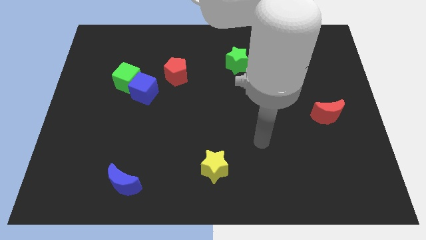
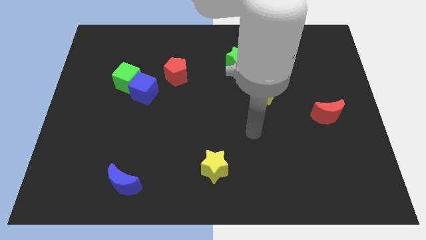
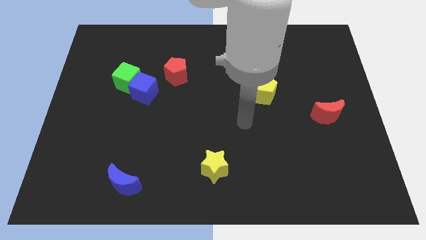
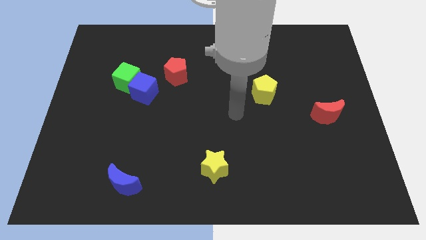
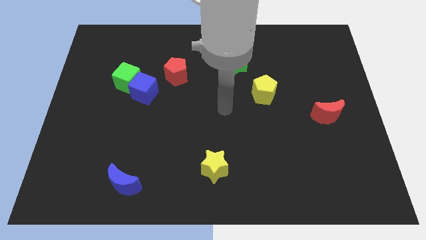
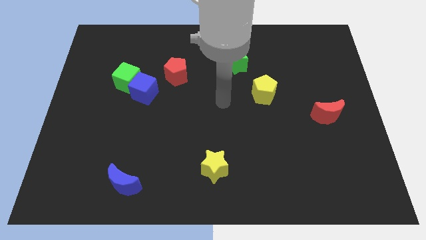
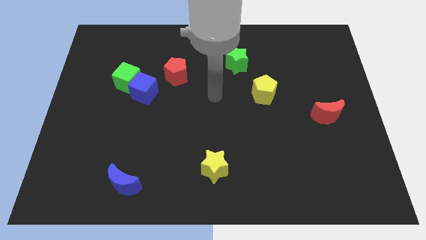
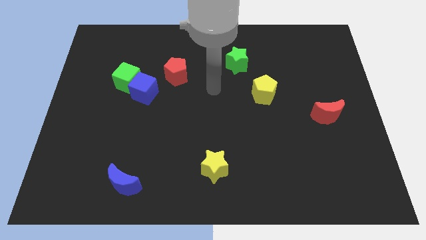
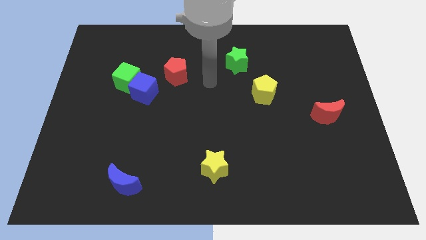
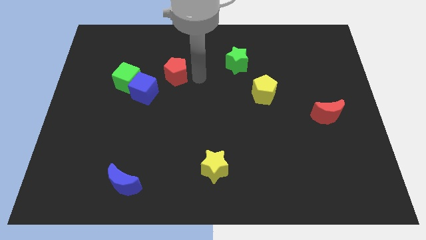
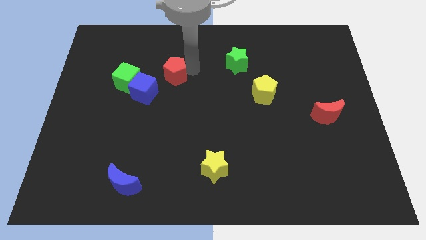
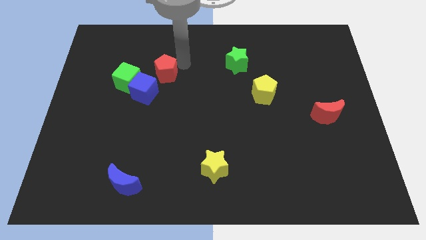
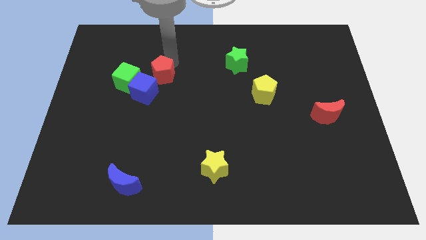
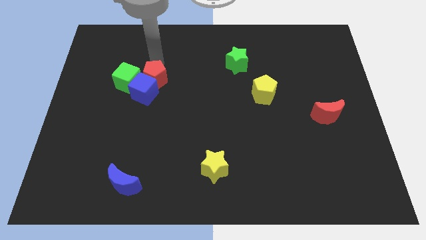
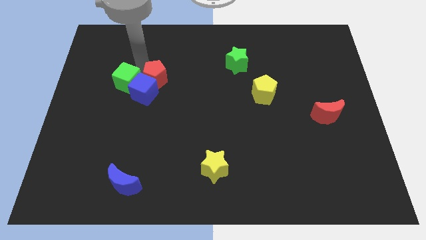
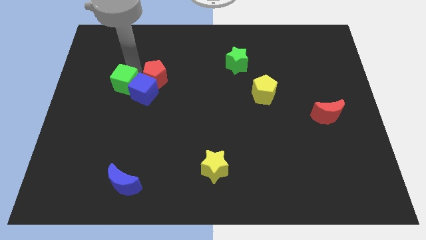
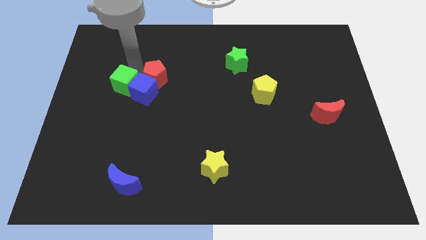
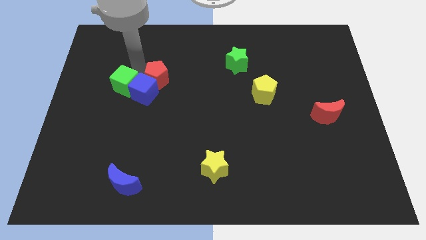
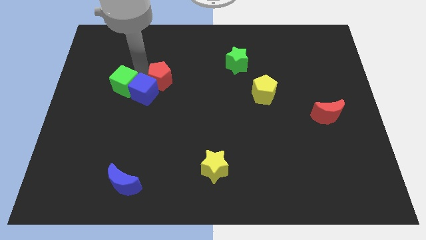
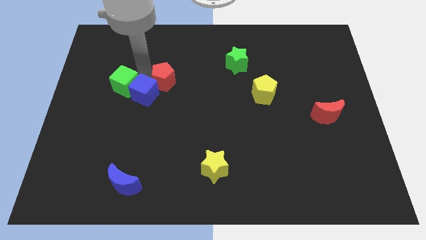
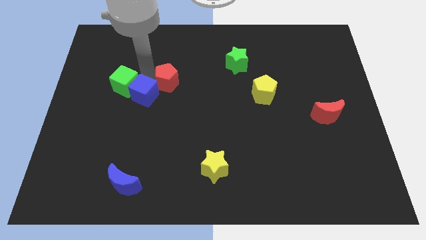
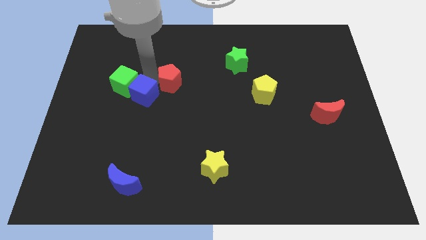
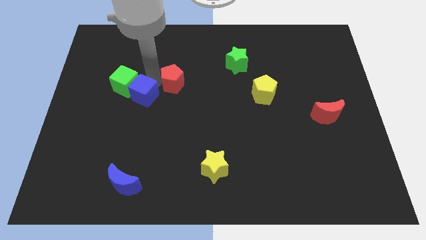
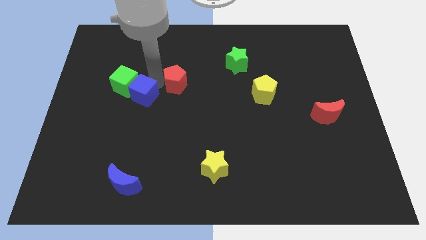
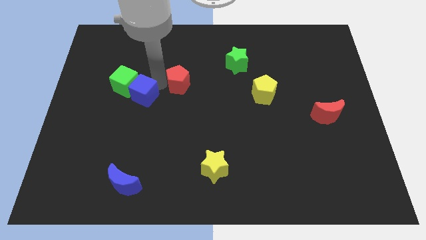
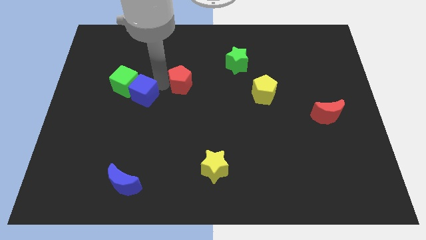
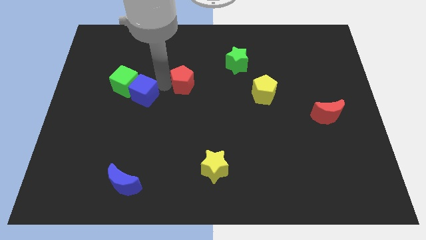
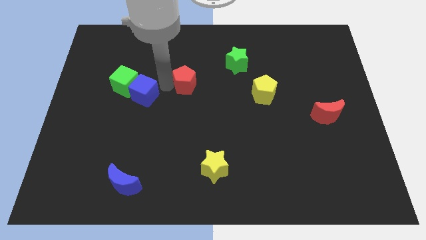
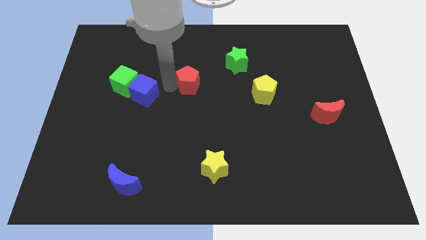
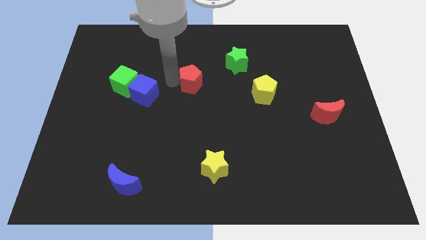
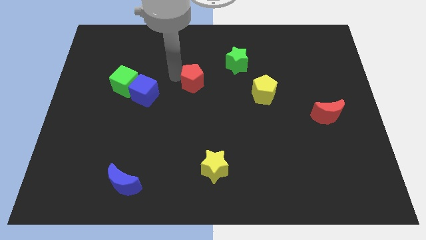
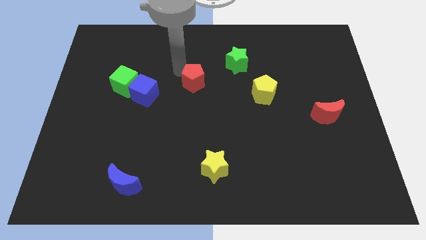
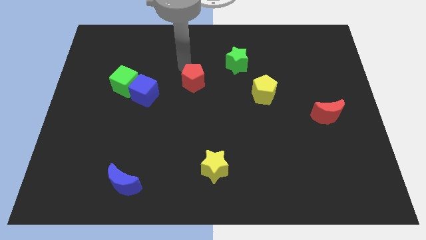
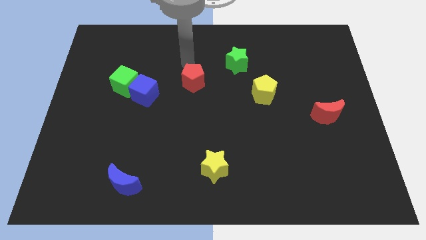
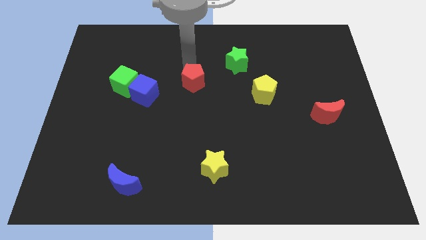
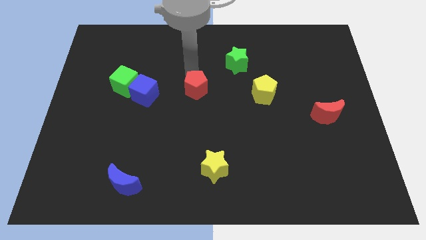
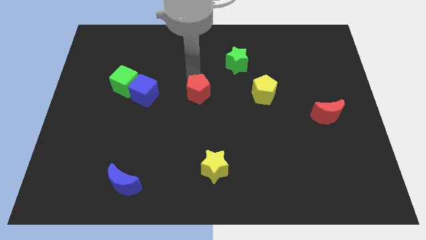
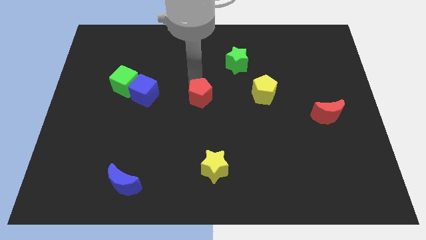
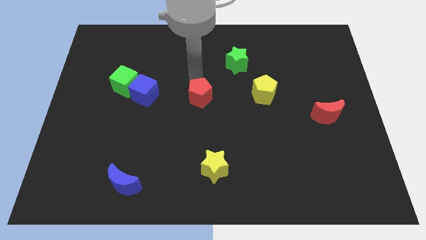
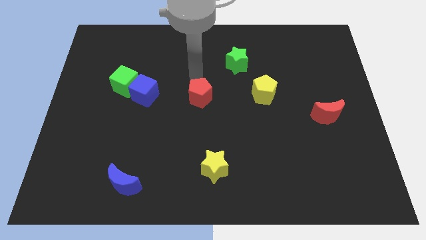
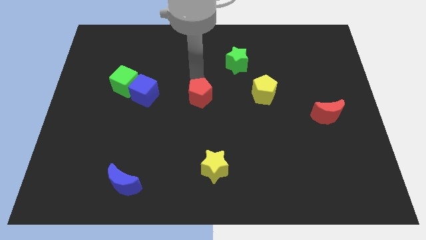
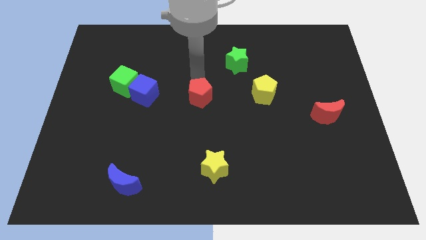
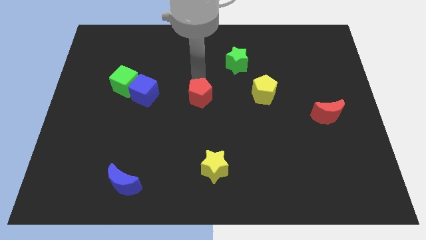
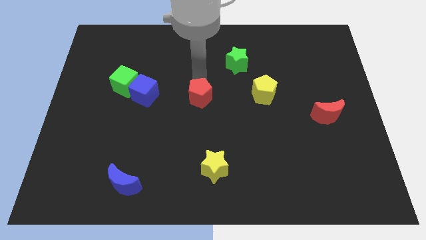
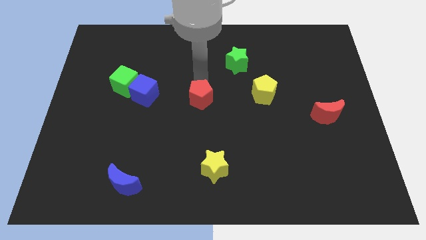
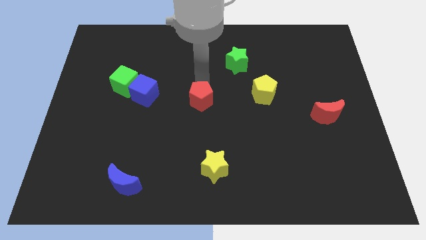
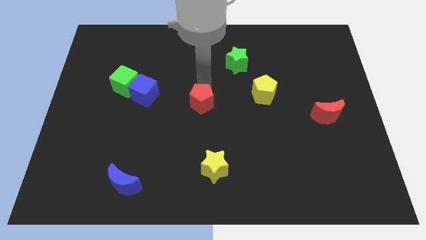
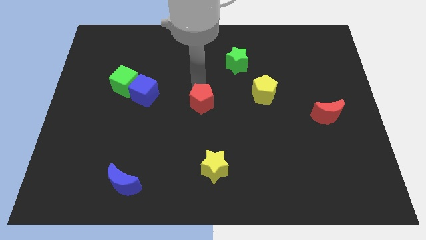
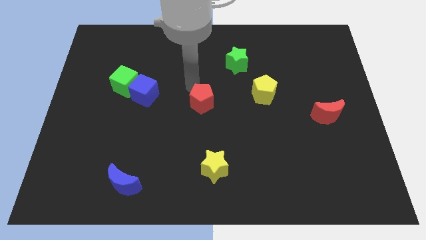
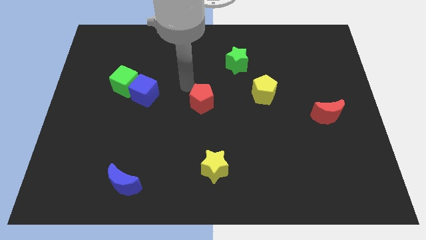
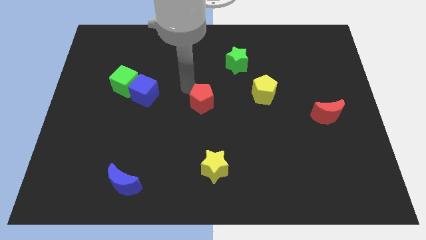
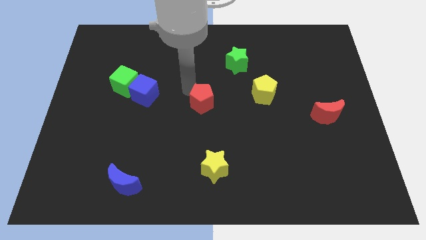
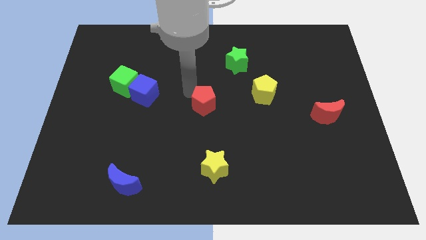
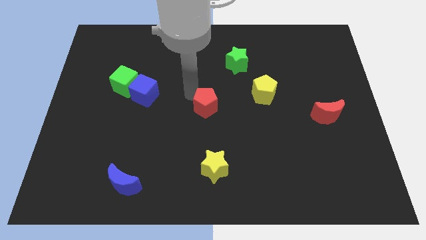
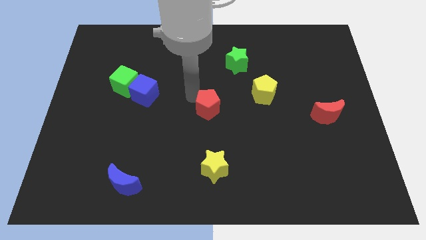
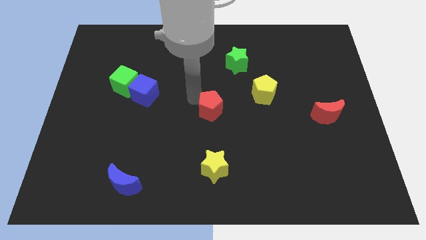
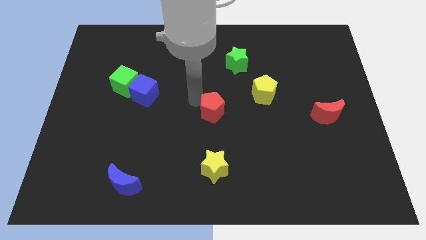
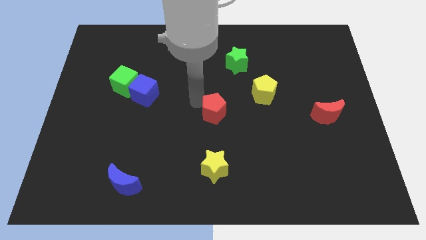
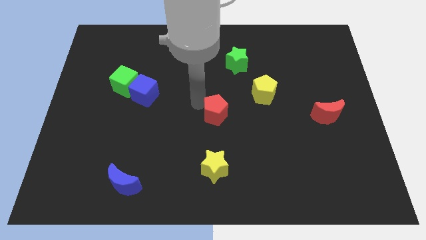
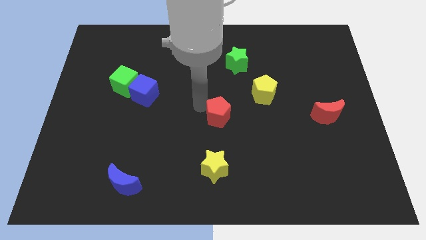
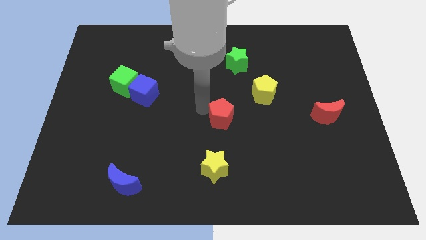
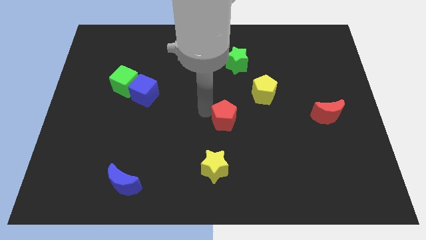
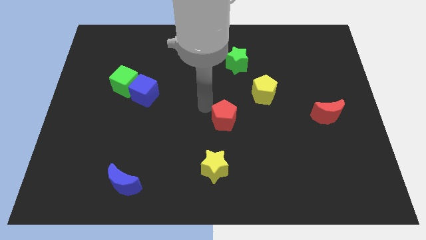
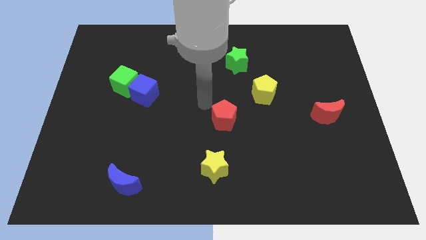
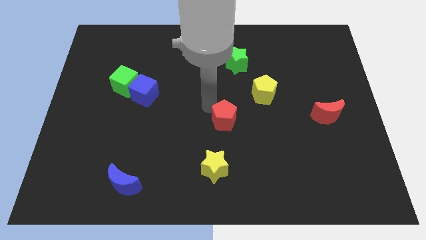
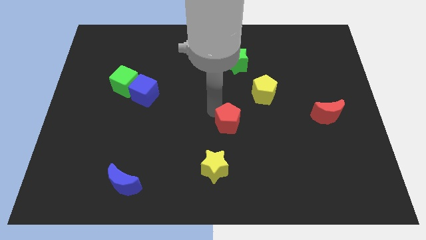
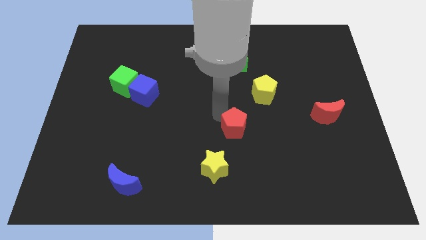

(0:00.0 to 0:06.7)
move the red pentagon downwards and then to the right

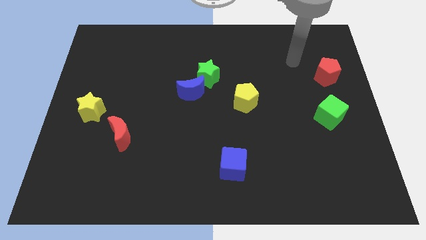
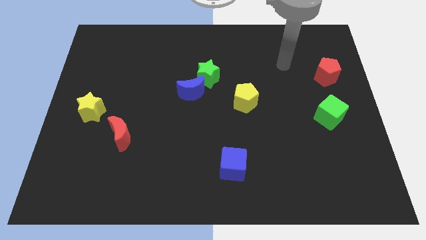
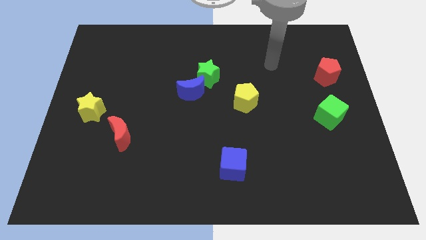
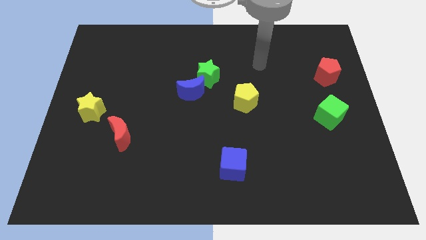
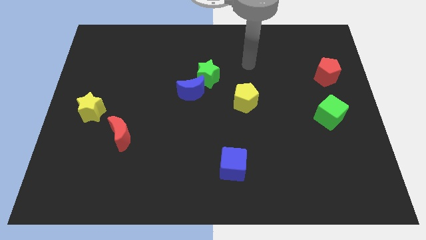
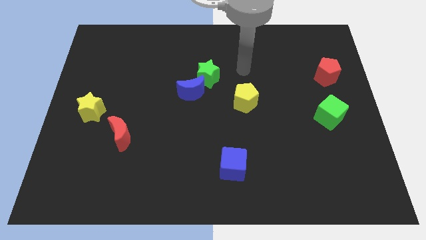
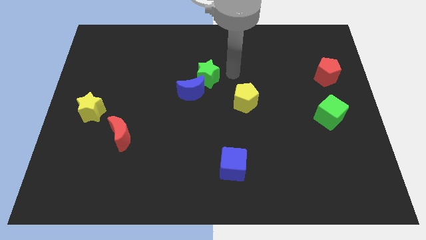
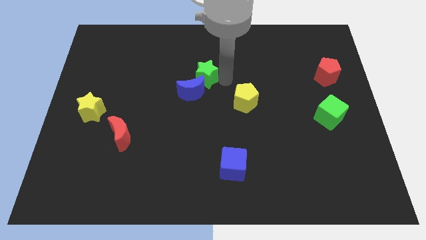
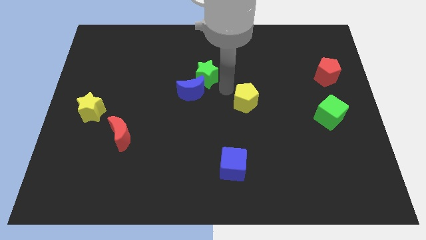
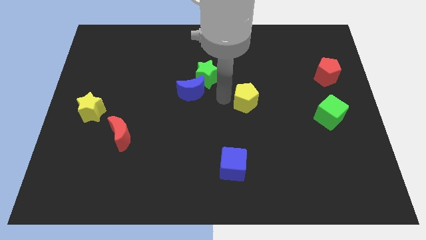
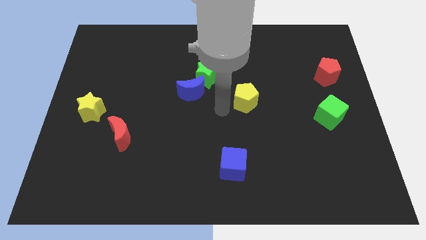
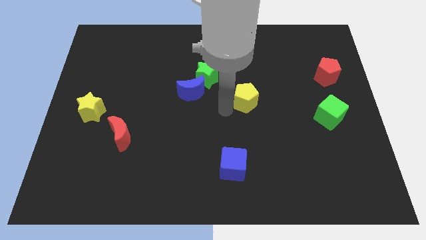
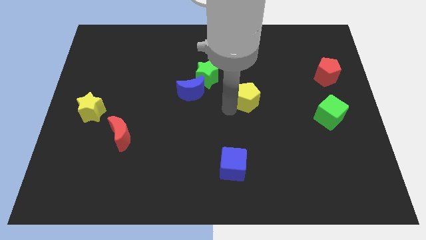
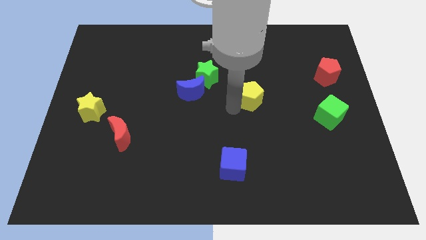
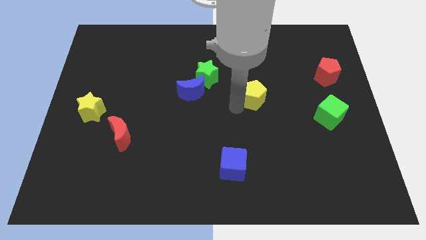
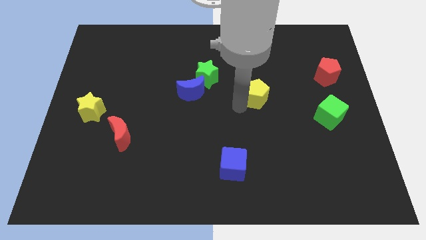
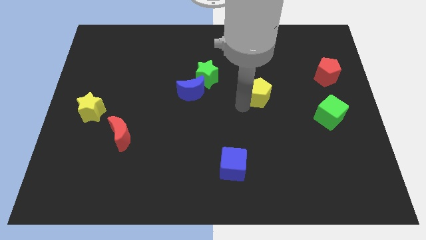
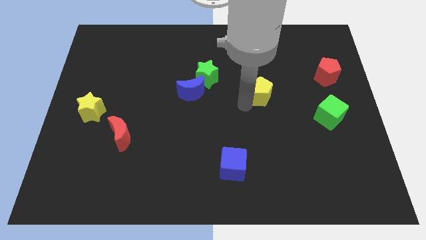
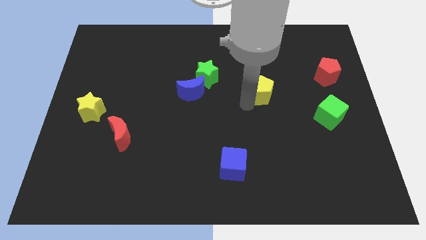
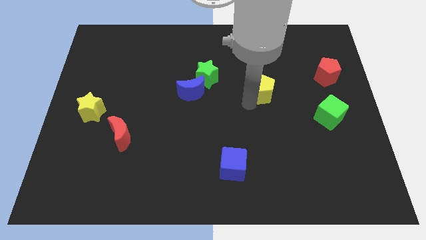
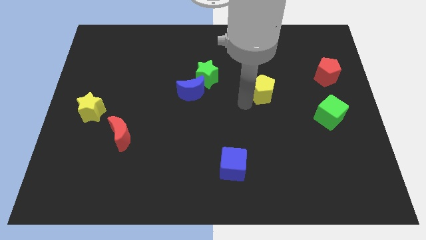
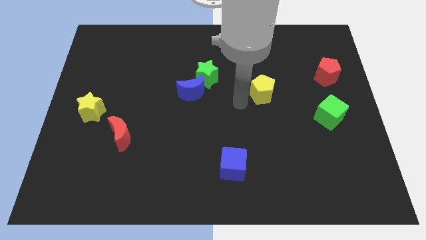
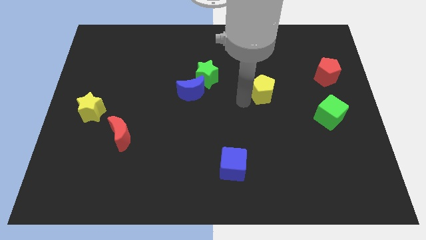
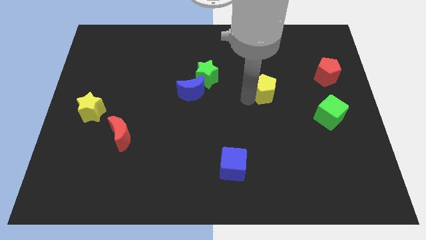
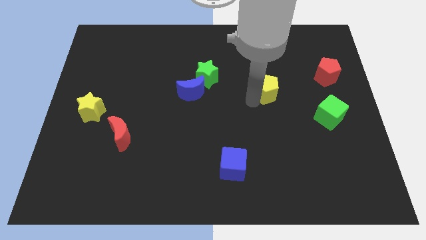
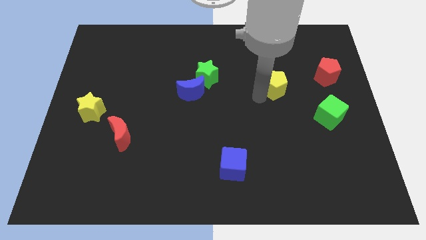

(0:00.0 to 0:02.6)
slightly move the yellow pentagon upwards and then to the right
